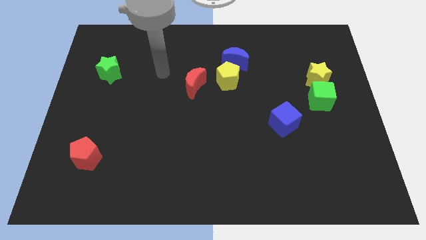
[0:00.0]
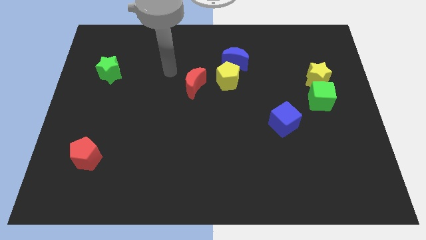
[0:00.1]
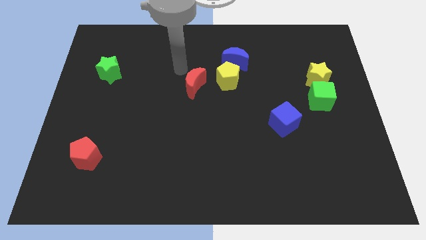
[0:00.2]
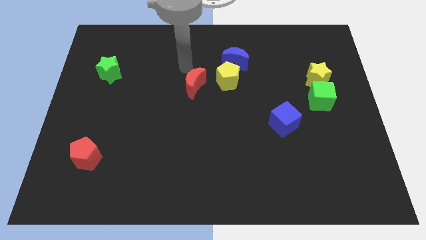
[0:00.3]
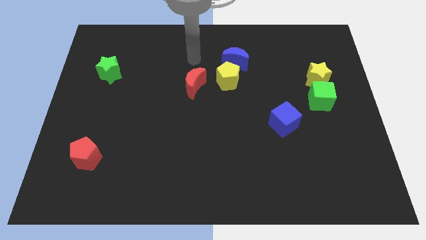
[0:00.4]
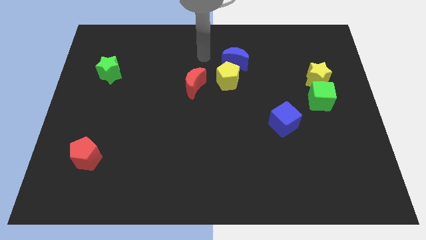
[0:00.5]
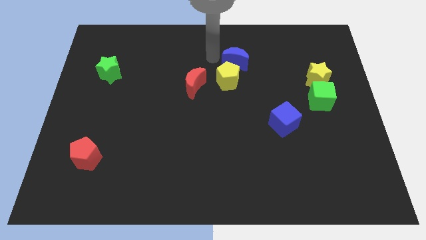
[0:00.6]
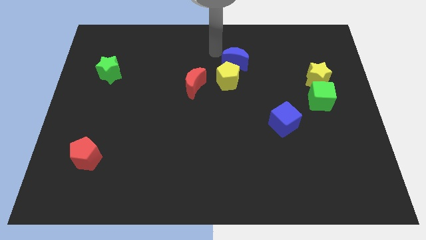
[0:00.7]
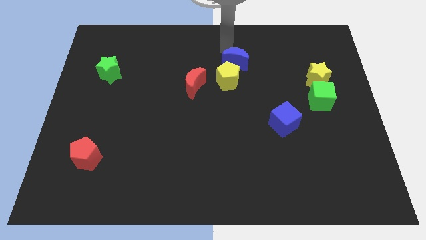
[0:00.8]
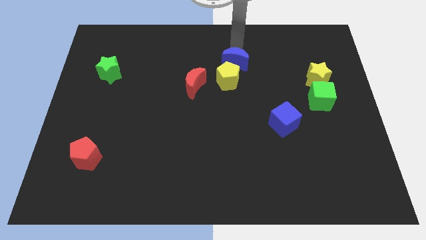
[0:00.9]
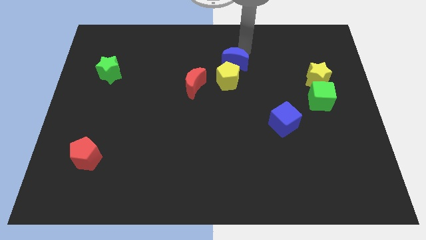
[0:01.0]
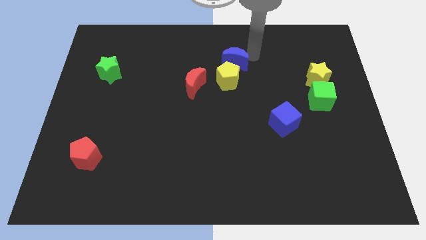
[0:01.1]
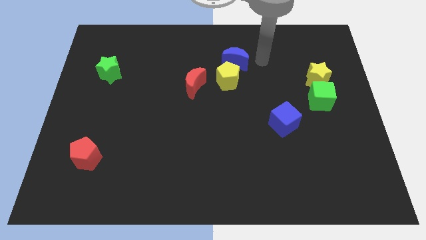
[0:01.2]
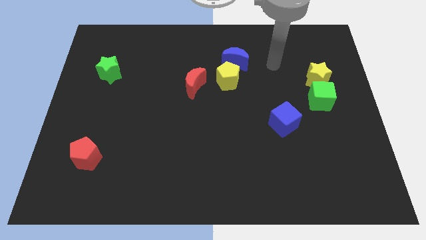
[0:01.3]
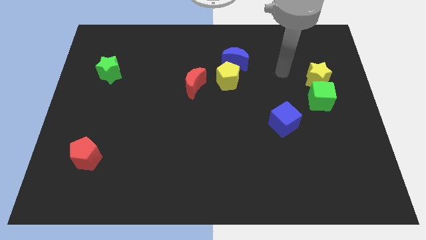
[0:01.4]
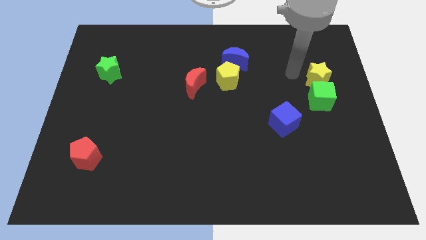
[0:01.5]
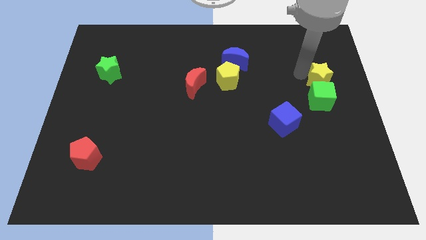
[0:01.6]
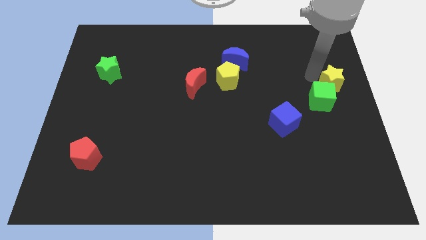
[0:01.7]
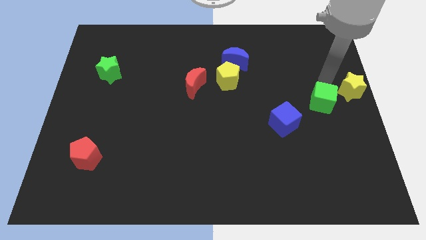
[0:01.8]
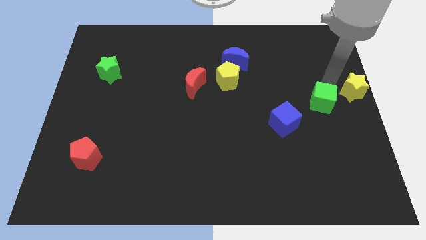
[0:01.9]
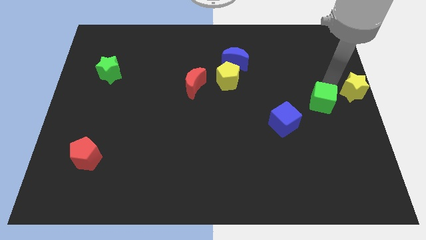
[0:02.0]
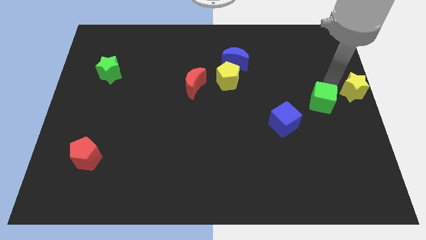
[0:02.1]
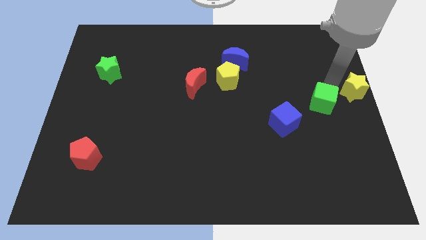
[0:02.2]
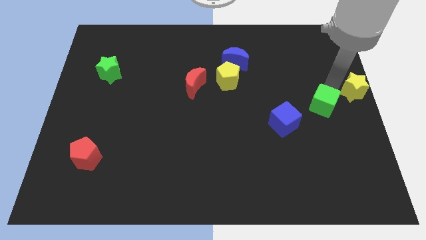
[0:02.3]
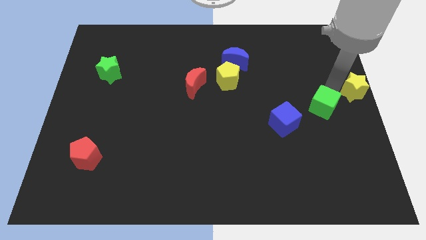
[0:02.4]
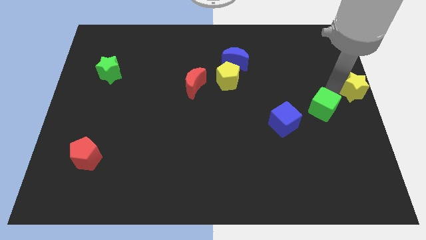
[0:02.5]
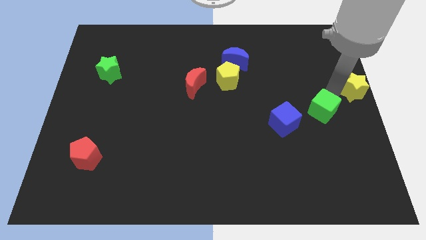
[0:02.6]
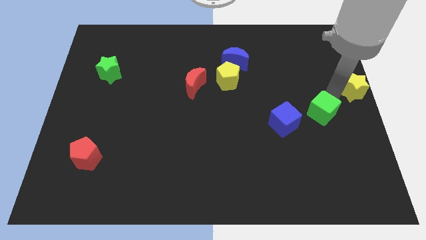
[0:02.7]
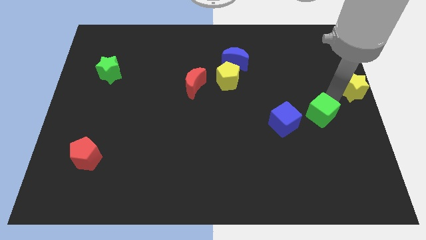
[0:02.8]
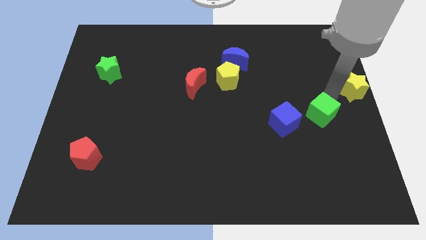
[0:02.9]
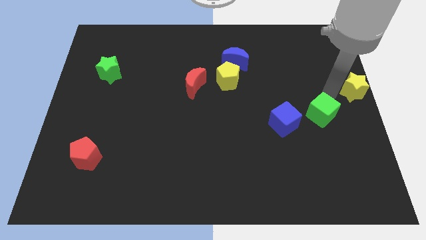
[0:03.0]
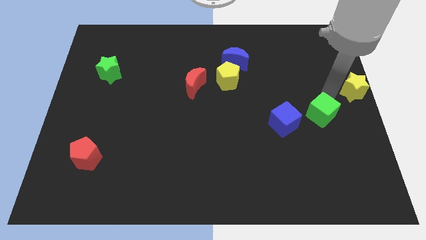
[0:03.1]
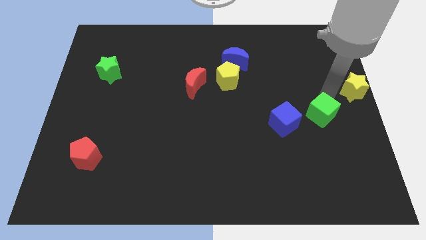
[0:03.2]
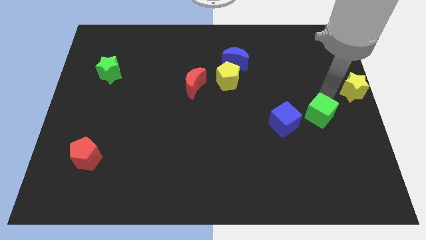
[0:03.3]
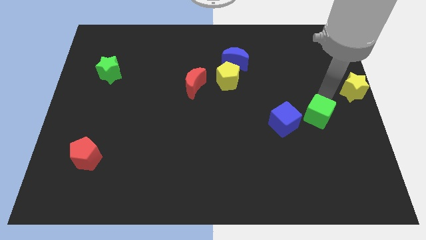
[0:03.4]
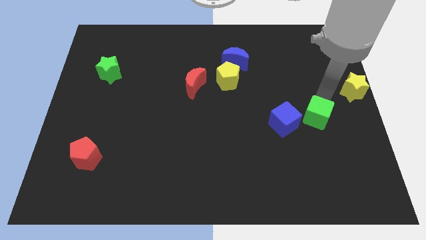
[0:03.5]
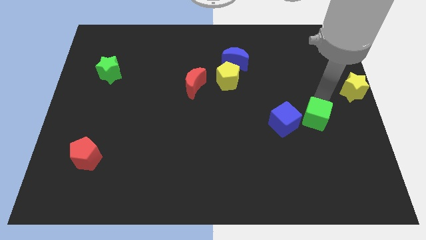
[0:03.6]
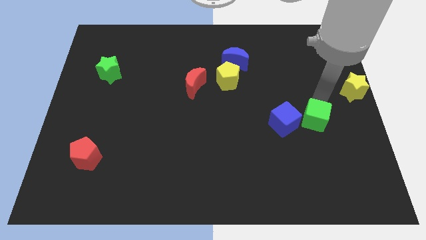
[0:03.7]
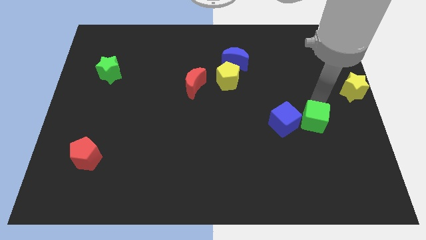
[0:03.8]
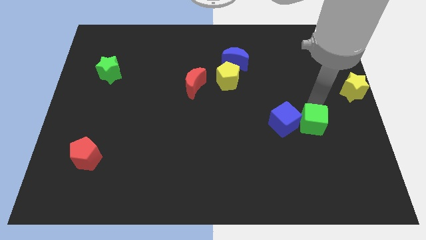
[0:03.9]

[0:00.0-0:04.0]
slightly slide the green cube down and then left

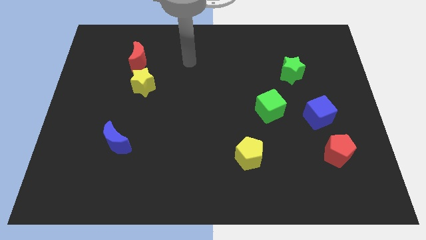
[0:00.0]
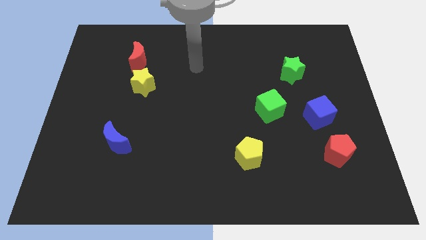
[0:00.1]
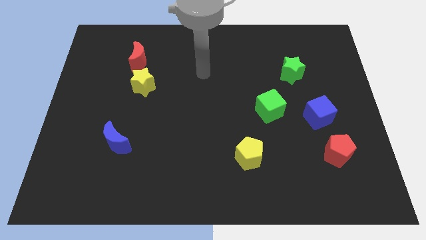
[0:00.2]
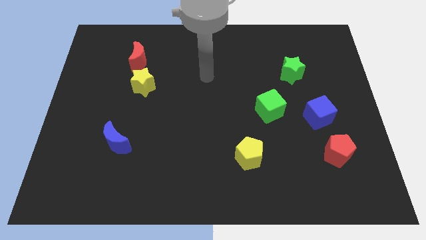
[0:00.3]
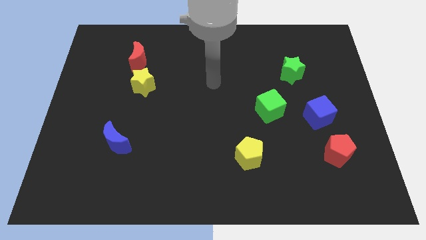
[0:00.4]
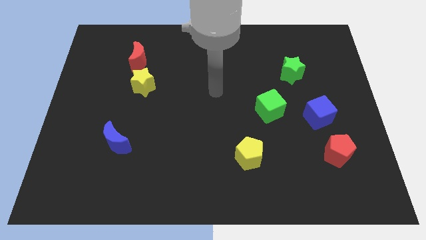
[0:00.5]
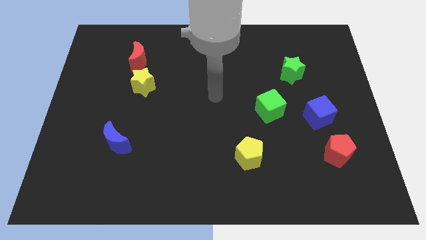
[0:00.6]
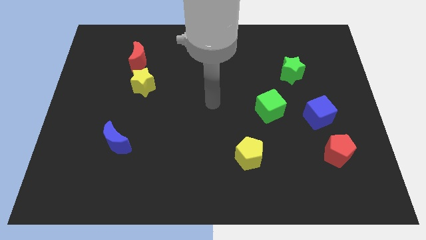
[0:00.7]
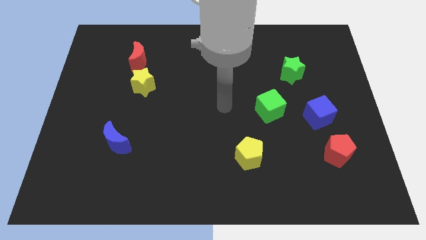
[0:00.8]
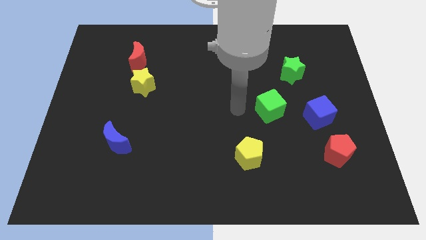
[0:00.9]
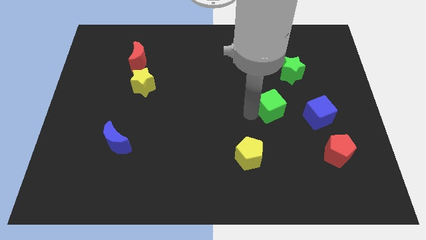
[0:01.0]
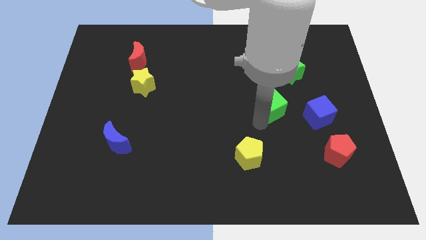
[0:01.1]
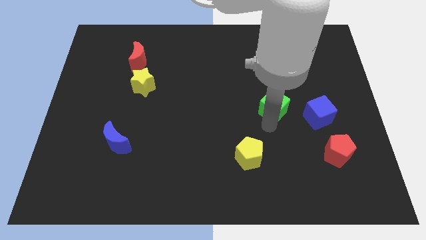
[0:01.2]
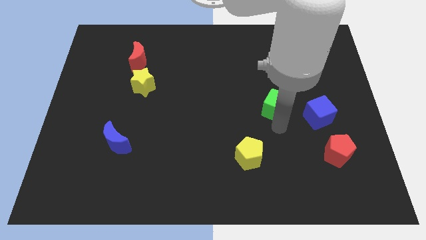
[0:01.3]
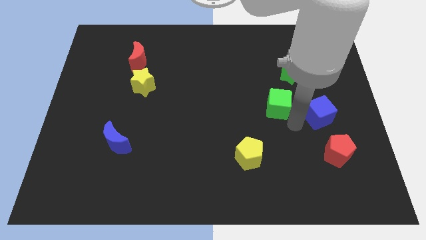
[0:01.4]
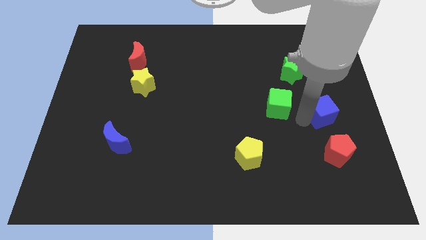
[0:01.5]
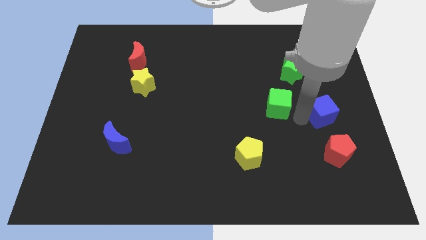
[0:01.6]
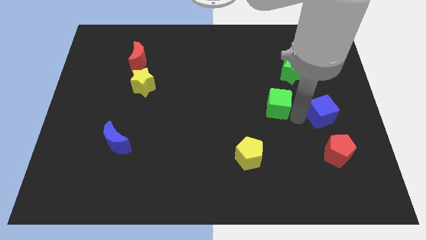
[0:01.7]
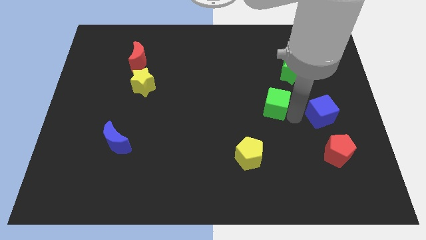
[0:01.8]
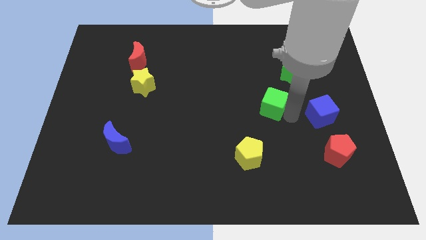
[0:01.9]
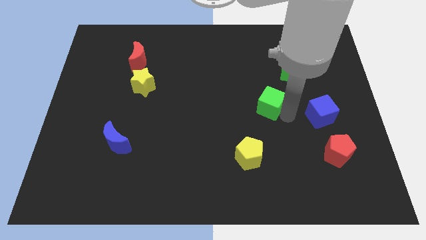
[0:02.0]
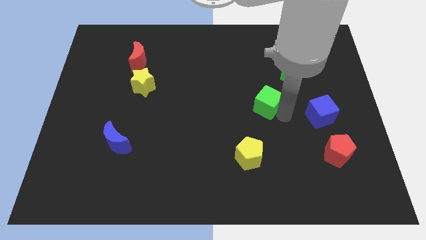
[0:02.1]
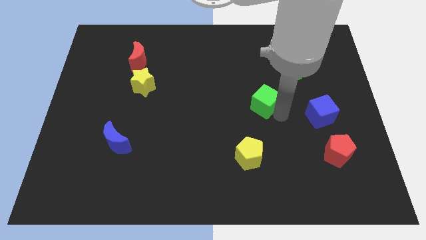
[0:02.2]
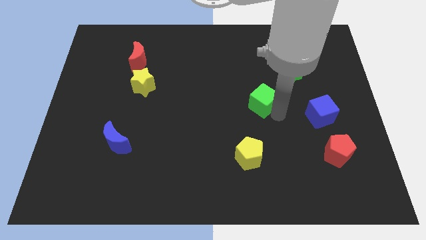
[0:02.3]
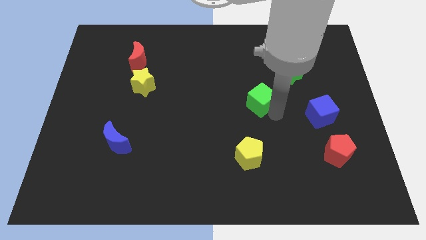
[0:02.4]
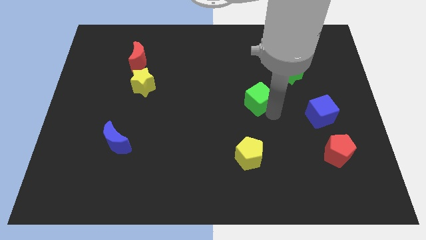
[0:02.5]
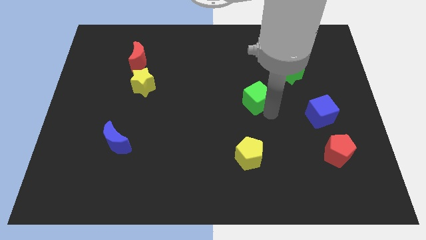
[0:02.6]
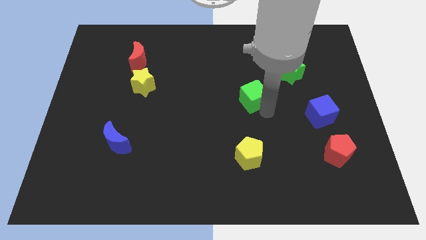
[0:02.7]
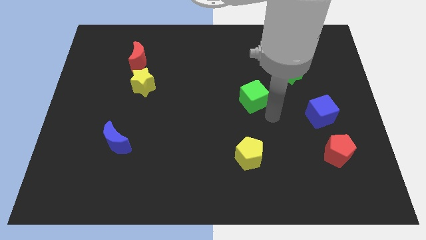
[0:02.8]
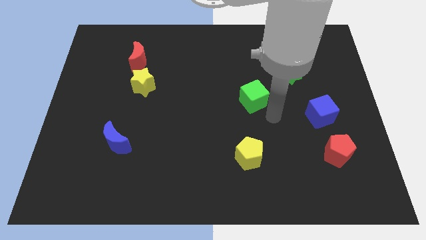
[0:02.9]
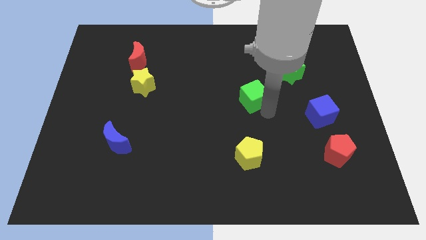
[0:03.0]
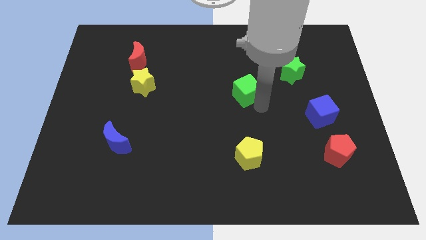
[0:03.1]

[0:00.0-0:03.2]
slightly move the green cube up and to the left diagonally

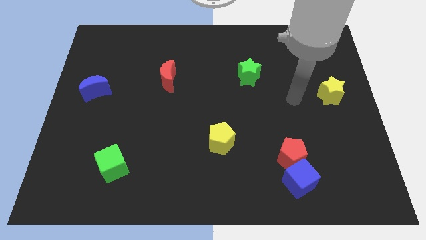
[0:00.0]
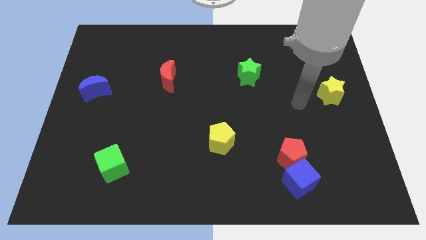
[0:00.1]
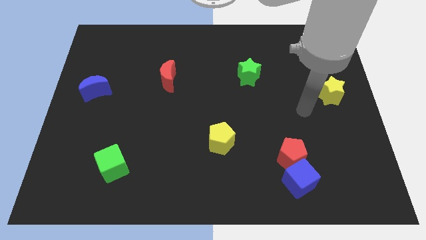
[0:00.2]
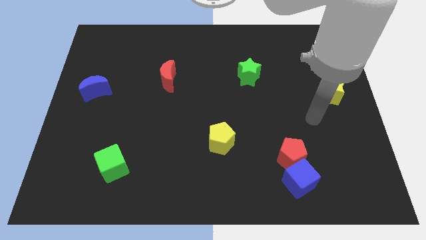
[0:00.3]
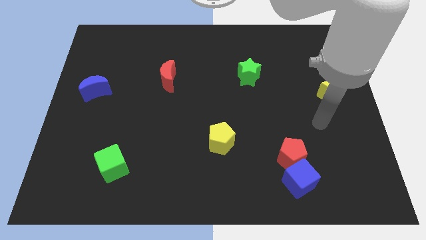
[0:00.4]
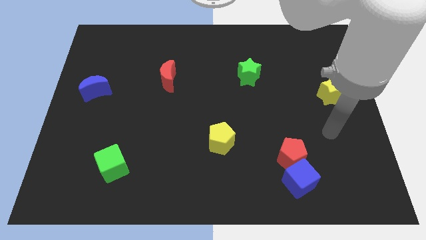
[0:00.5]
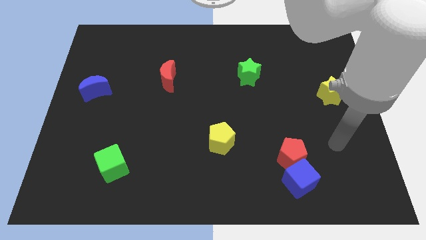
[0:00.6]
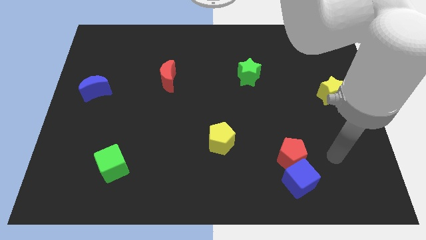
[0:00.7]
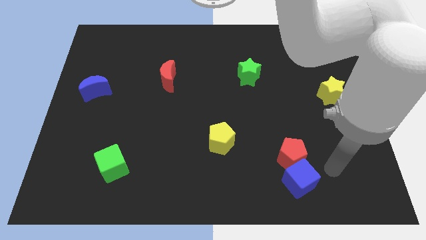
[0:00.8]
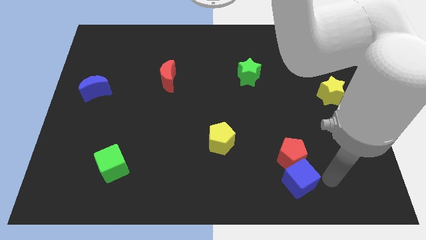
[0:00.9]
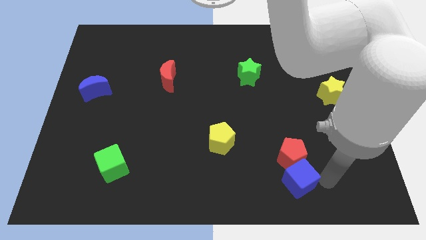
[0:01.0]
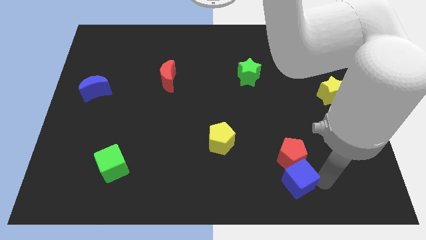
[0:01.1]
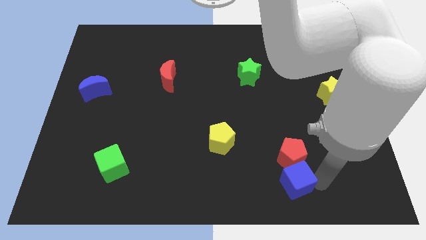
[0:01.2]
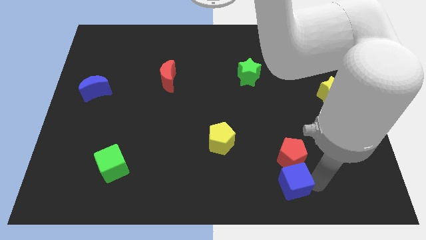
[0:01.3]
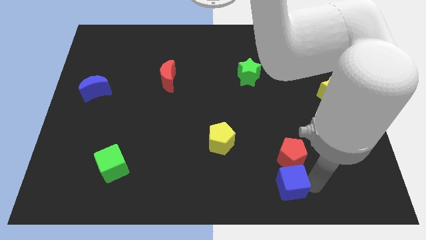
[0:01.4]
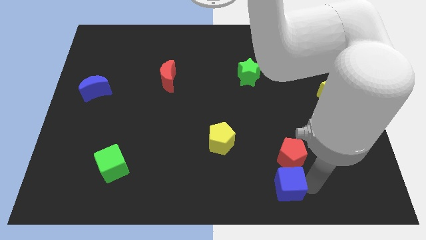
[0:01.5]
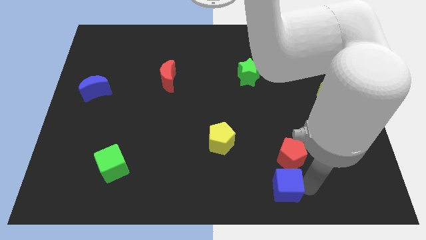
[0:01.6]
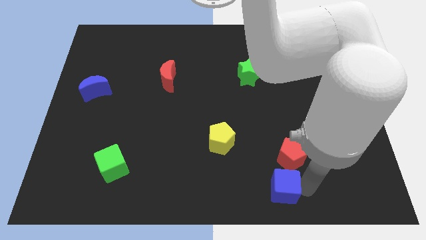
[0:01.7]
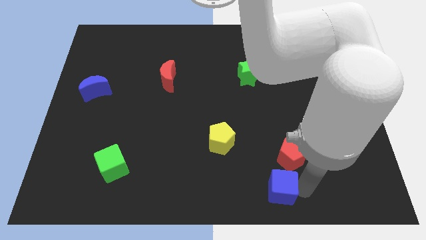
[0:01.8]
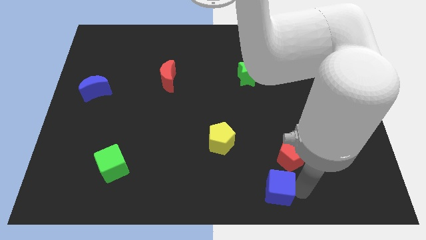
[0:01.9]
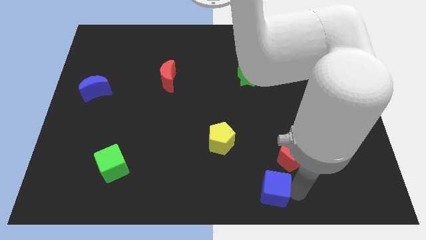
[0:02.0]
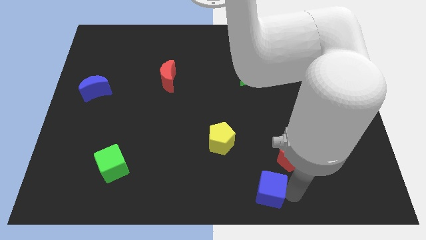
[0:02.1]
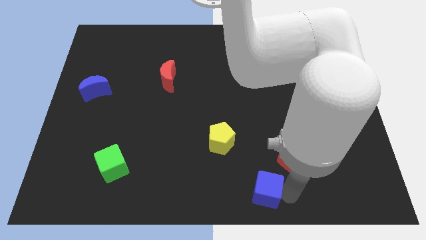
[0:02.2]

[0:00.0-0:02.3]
slide the blue cube to the left a bit
